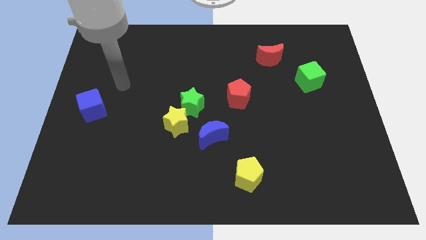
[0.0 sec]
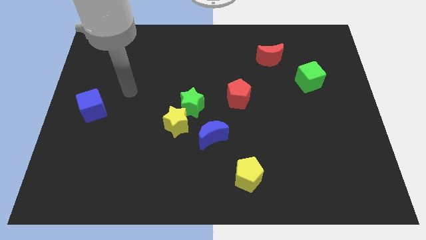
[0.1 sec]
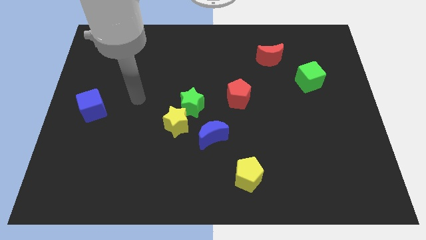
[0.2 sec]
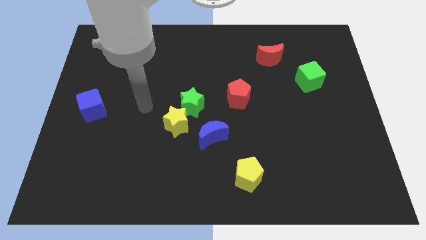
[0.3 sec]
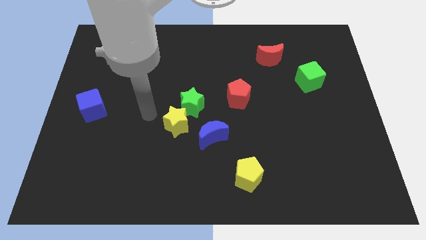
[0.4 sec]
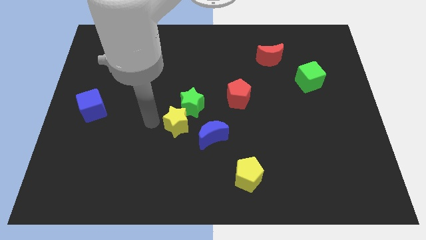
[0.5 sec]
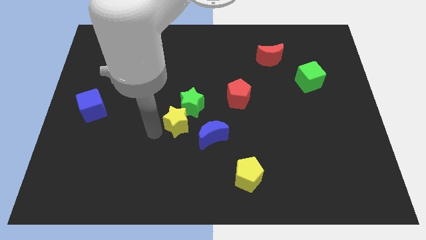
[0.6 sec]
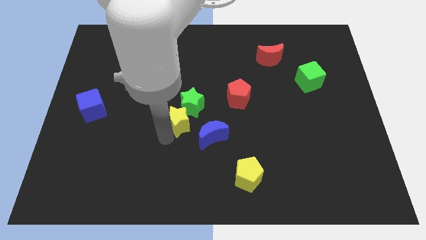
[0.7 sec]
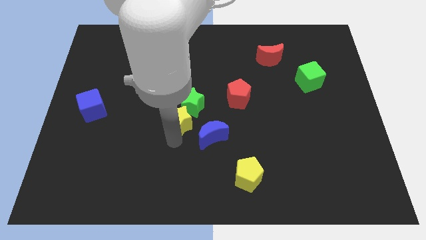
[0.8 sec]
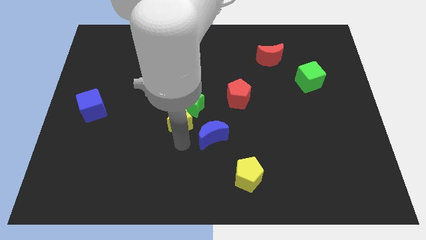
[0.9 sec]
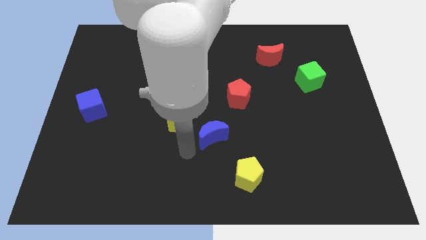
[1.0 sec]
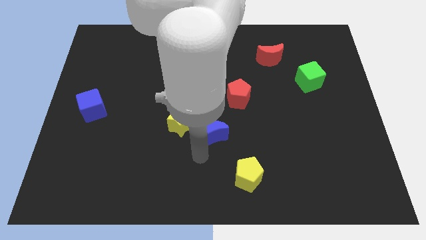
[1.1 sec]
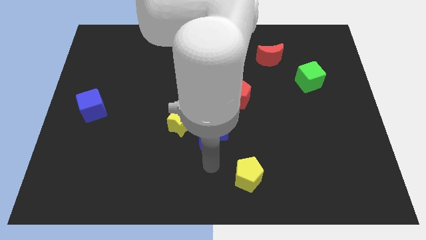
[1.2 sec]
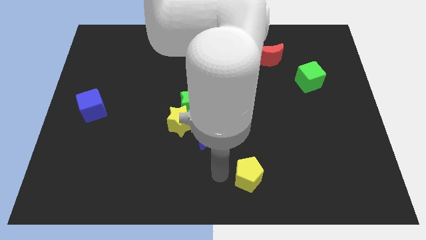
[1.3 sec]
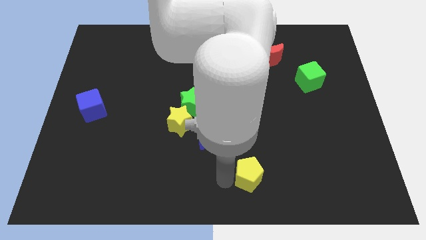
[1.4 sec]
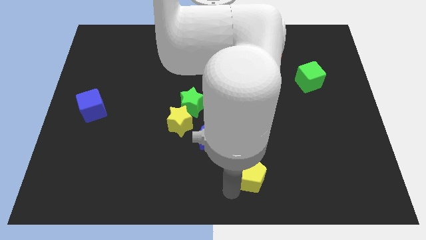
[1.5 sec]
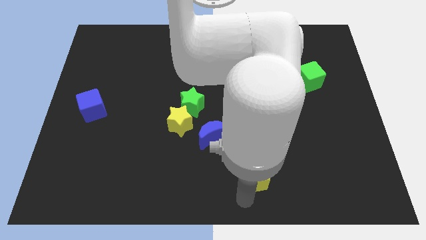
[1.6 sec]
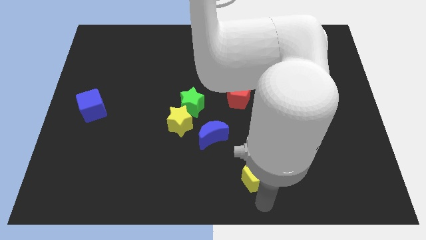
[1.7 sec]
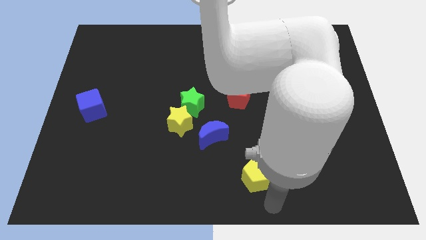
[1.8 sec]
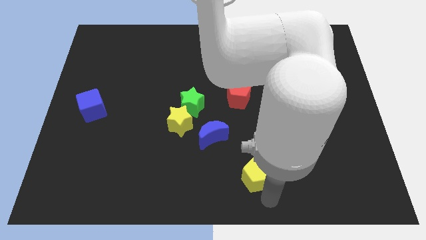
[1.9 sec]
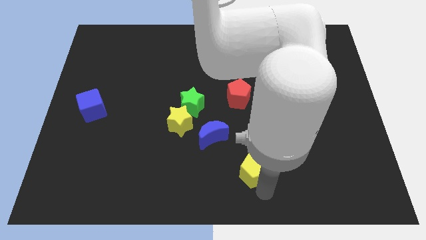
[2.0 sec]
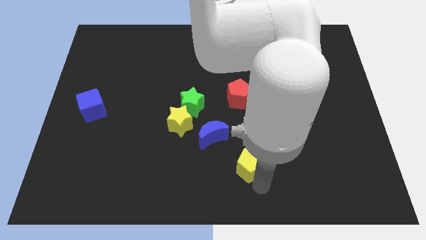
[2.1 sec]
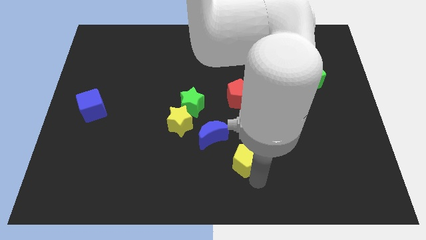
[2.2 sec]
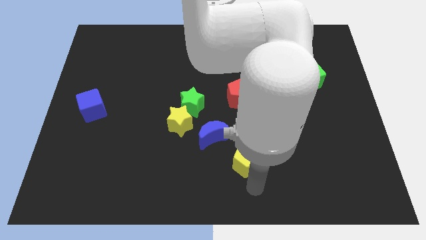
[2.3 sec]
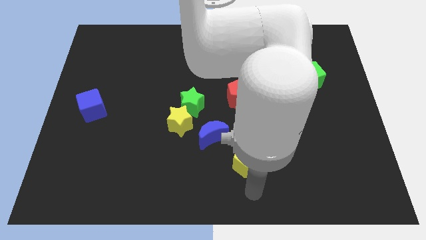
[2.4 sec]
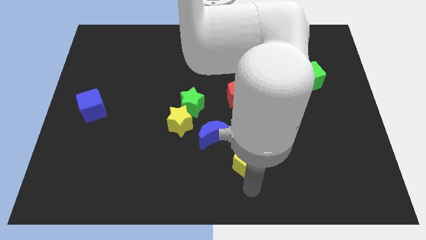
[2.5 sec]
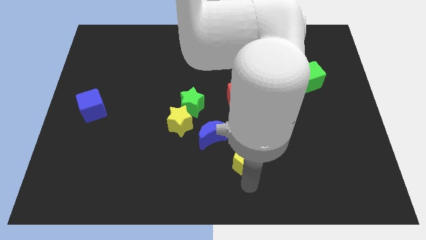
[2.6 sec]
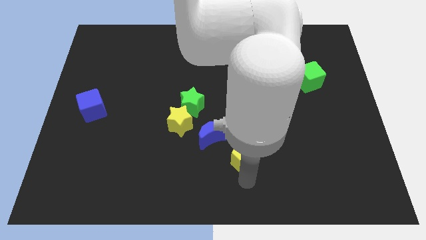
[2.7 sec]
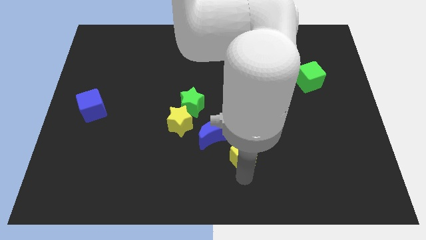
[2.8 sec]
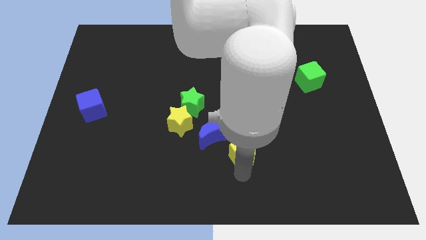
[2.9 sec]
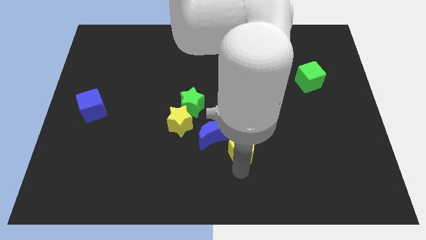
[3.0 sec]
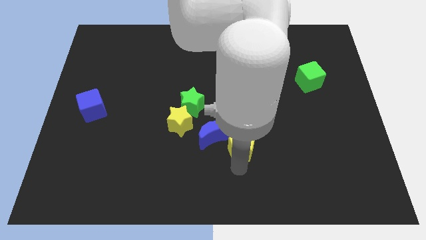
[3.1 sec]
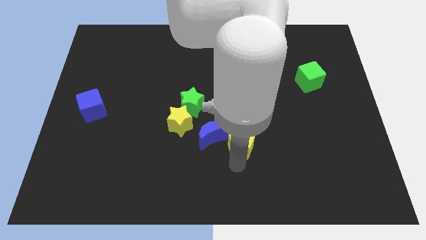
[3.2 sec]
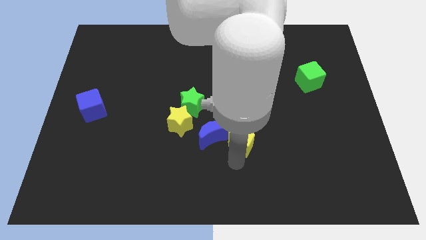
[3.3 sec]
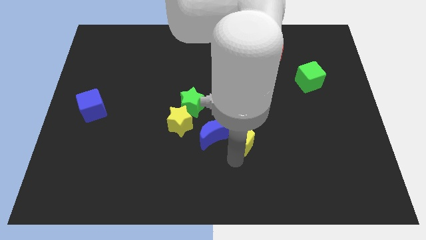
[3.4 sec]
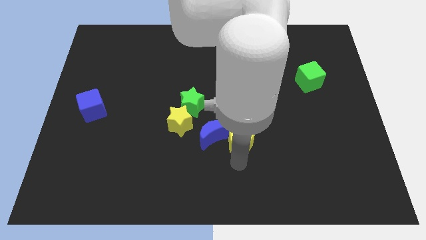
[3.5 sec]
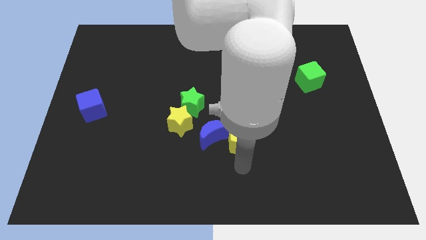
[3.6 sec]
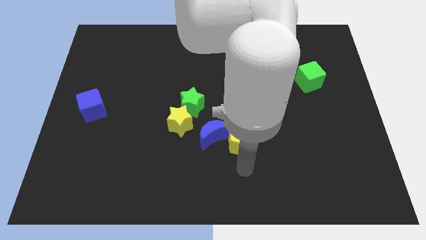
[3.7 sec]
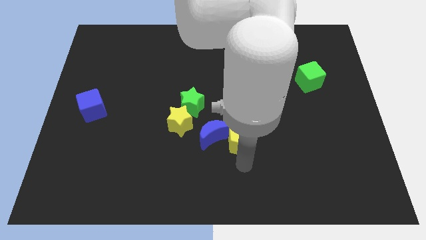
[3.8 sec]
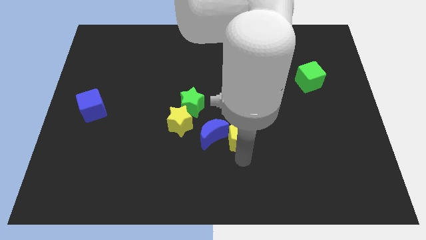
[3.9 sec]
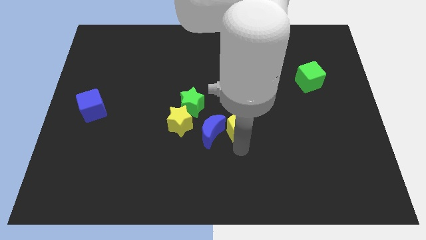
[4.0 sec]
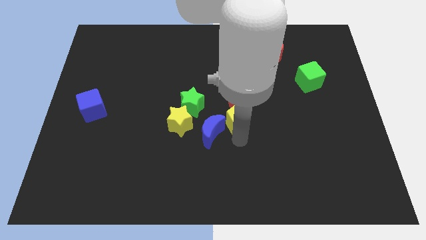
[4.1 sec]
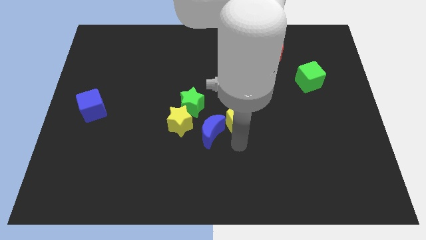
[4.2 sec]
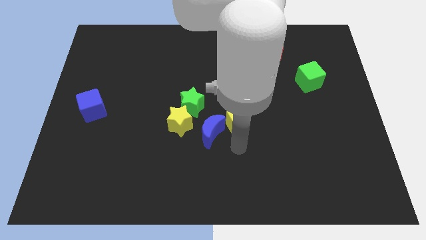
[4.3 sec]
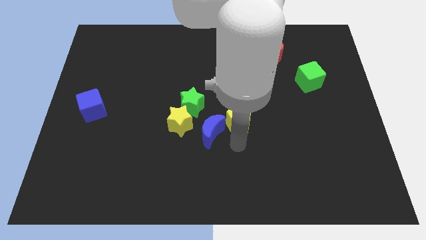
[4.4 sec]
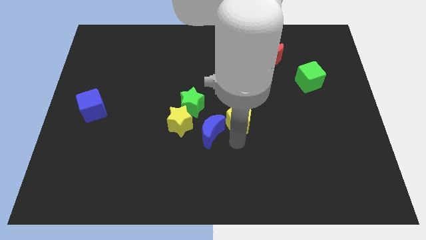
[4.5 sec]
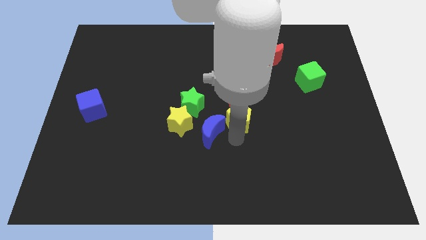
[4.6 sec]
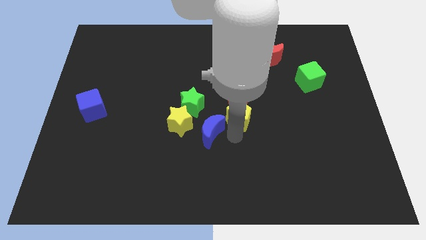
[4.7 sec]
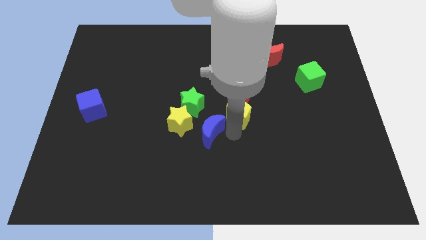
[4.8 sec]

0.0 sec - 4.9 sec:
slide the yellow pentagon to the red pentagon

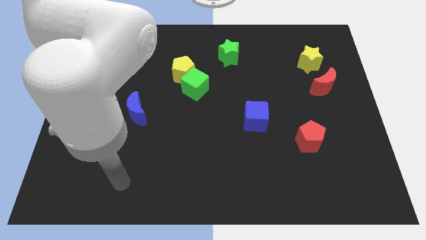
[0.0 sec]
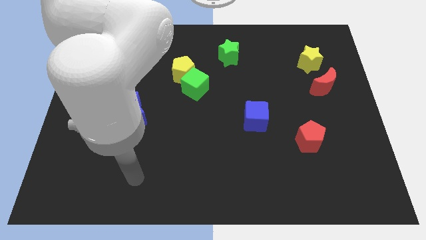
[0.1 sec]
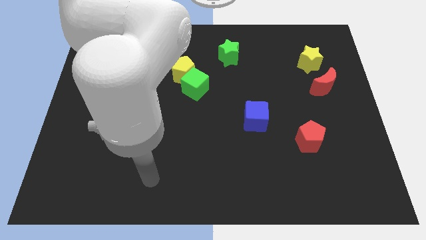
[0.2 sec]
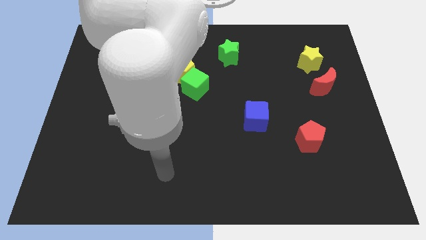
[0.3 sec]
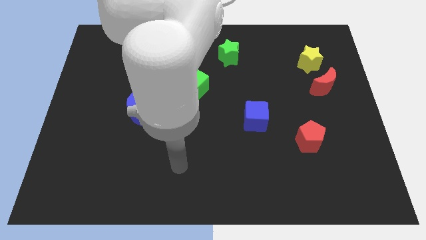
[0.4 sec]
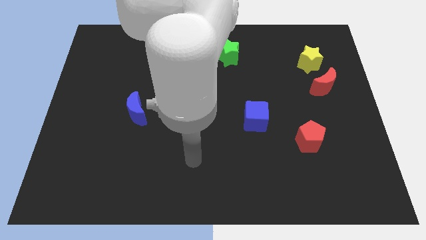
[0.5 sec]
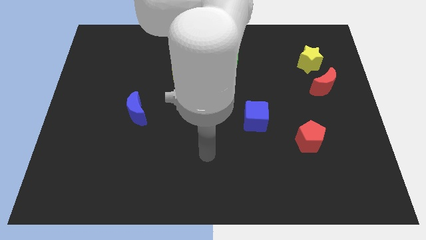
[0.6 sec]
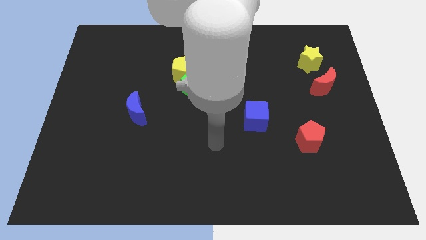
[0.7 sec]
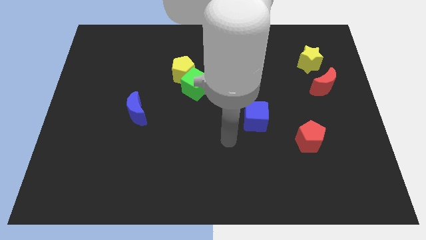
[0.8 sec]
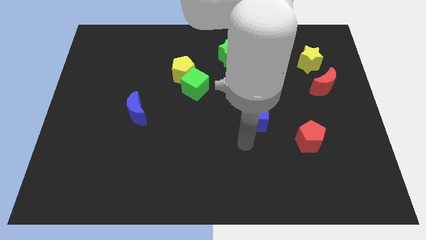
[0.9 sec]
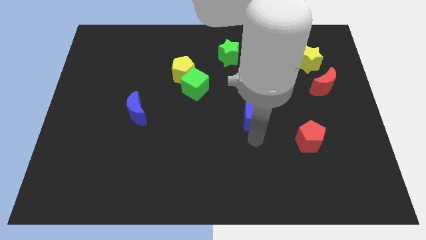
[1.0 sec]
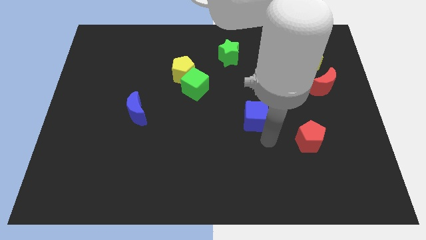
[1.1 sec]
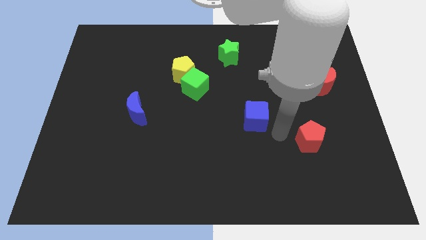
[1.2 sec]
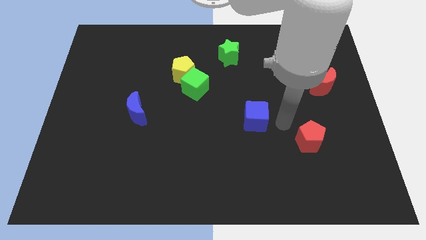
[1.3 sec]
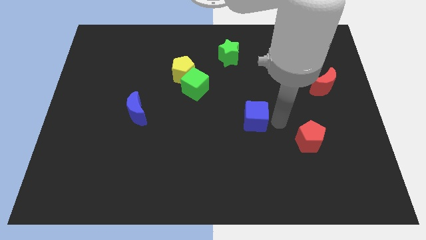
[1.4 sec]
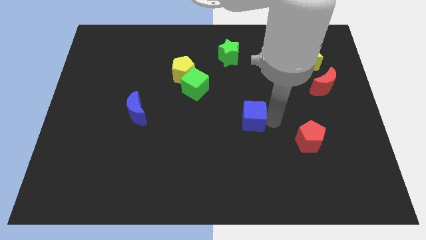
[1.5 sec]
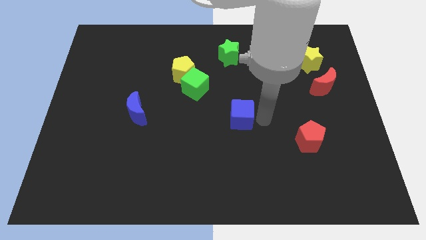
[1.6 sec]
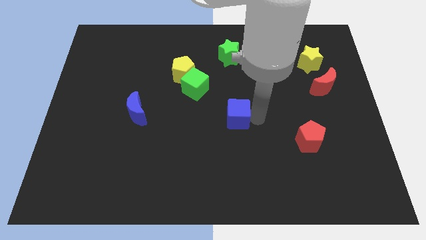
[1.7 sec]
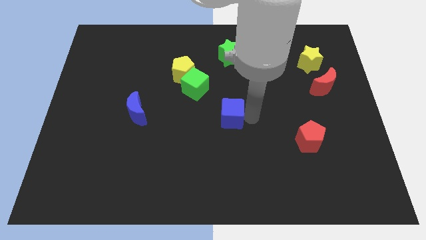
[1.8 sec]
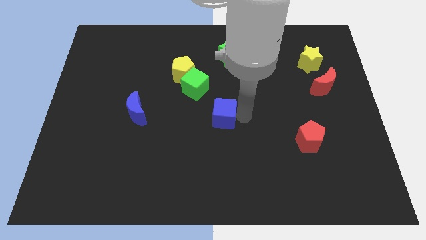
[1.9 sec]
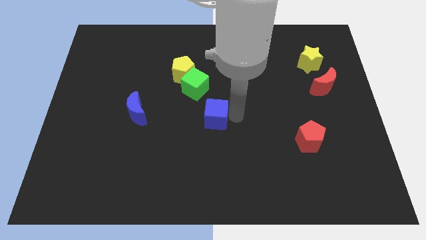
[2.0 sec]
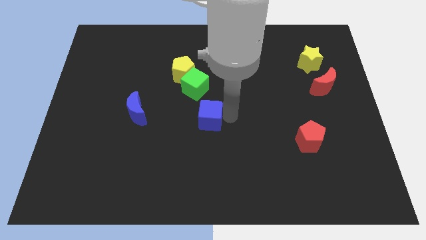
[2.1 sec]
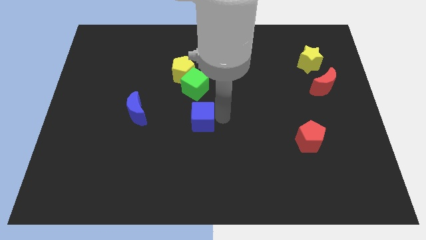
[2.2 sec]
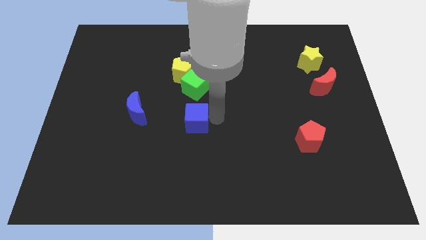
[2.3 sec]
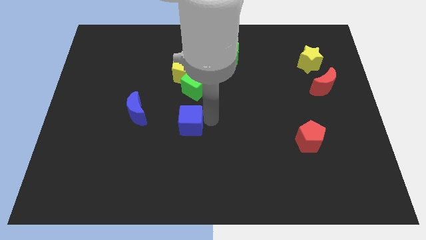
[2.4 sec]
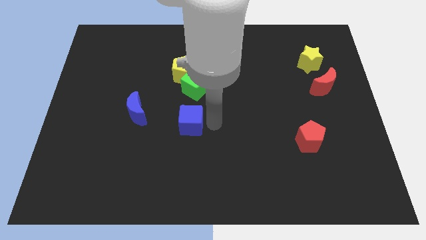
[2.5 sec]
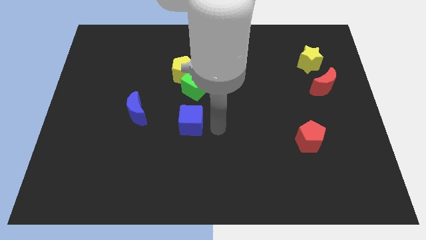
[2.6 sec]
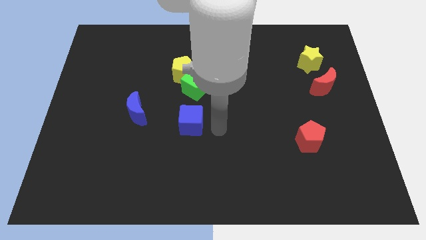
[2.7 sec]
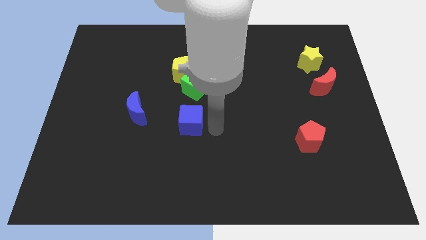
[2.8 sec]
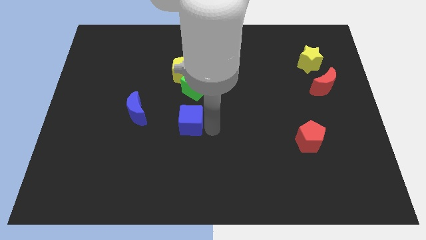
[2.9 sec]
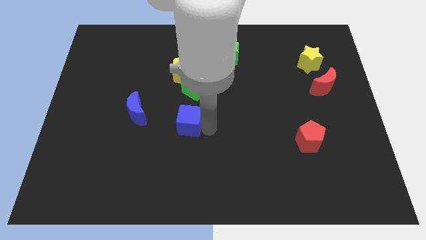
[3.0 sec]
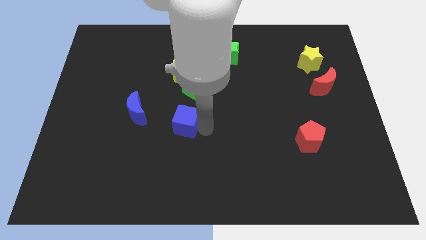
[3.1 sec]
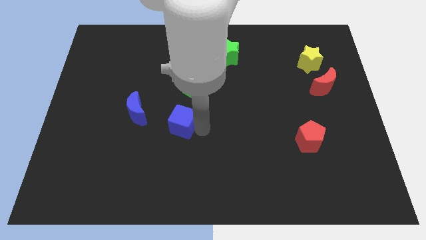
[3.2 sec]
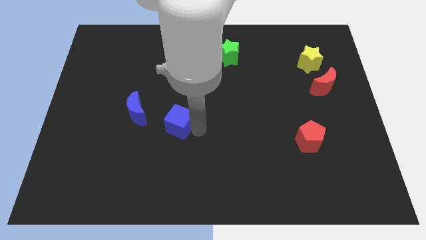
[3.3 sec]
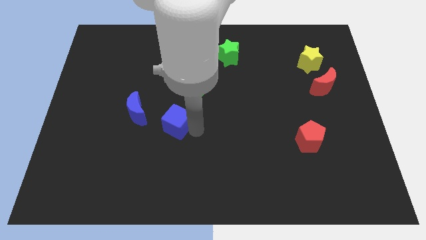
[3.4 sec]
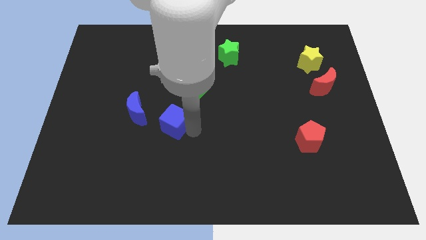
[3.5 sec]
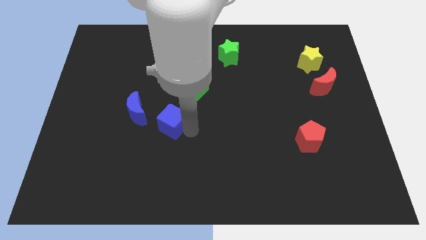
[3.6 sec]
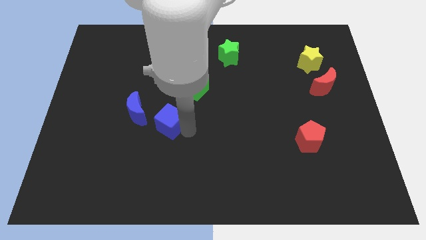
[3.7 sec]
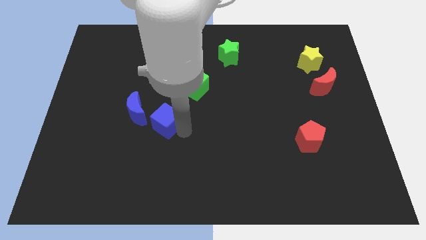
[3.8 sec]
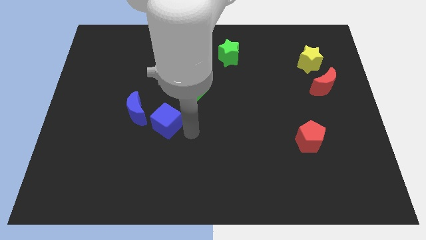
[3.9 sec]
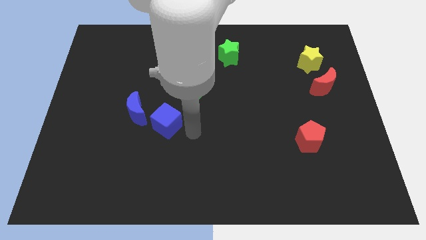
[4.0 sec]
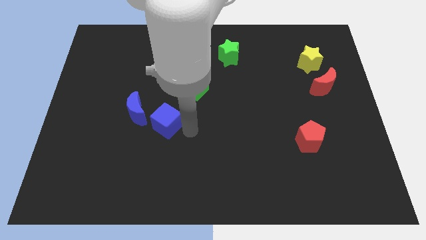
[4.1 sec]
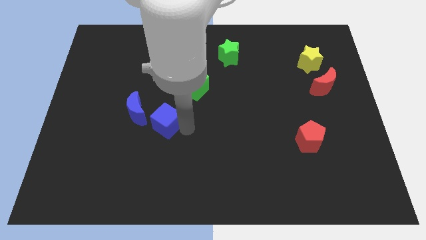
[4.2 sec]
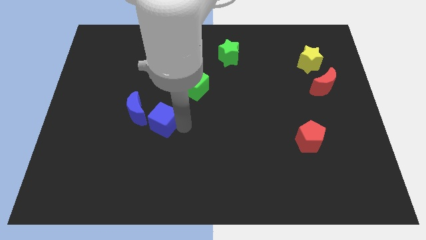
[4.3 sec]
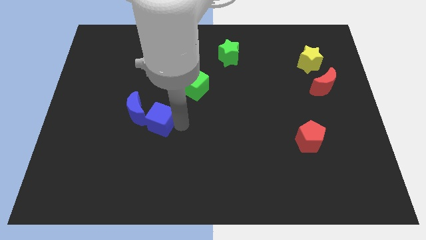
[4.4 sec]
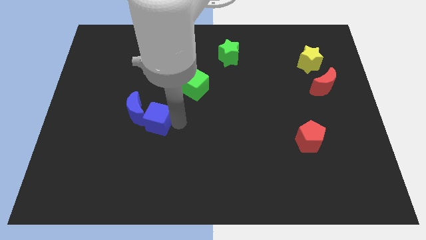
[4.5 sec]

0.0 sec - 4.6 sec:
push the blue cube close to the blue moon
